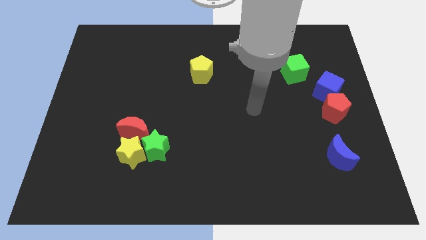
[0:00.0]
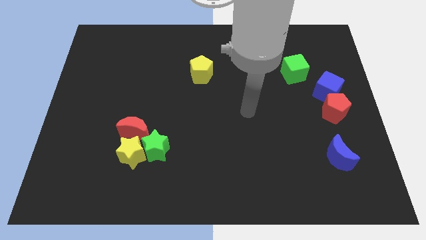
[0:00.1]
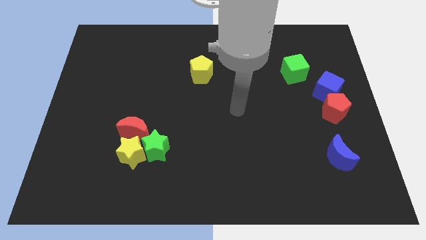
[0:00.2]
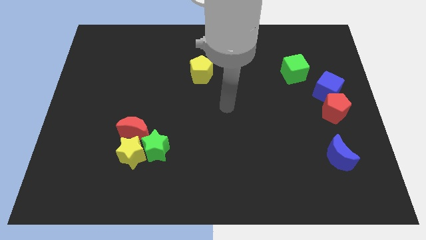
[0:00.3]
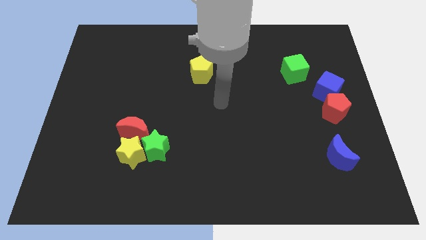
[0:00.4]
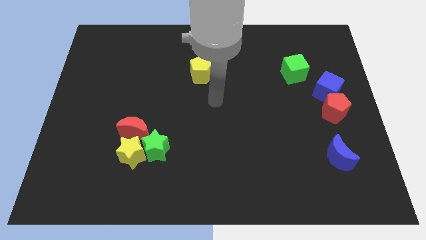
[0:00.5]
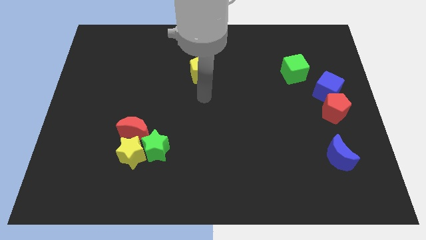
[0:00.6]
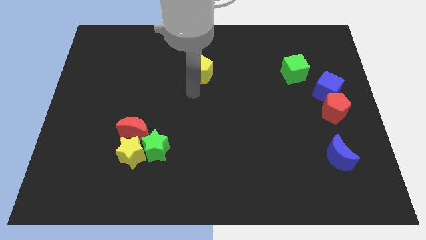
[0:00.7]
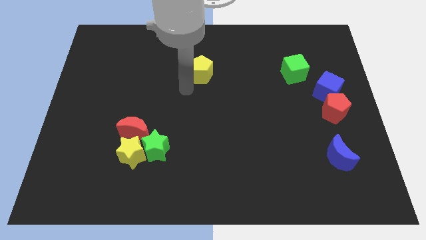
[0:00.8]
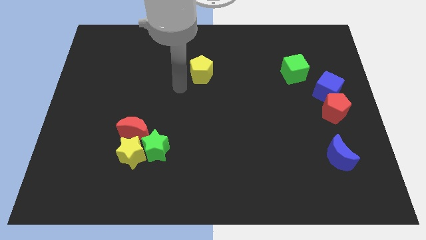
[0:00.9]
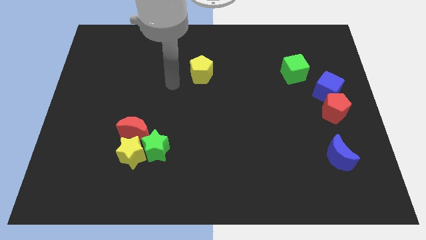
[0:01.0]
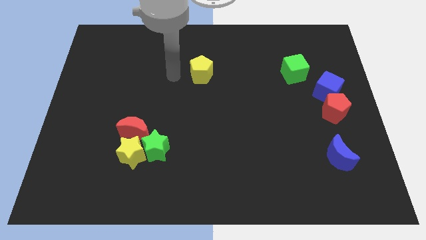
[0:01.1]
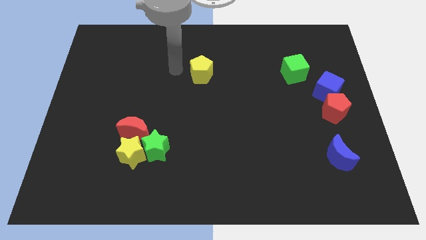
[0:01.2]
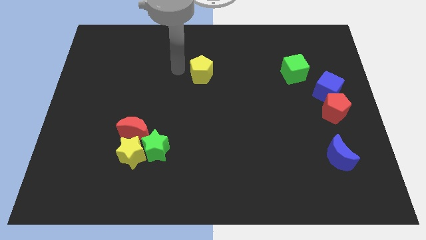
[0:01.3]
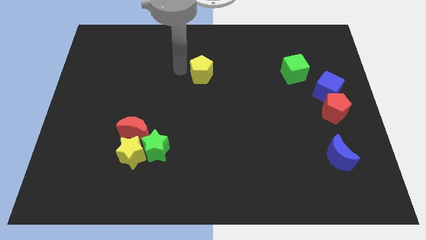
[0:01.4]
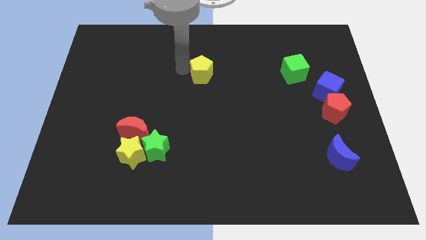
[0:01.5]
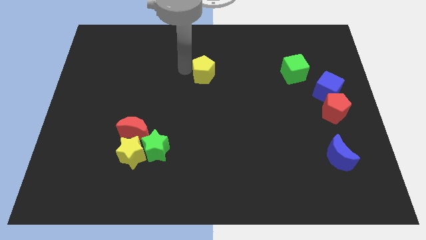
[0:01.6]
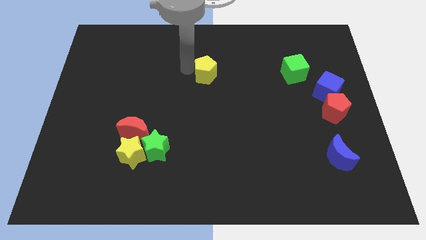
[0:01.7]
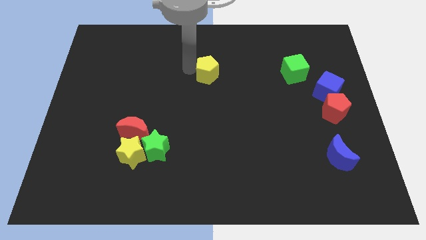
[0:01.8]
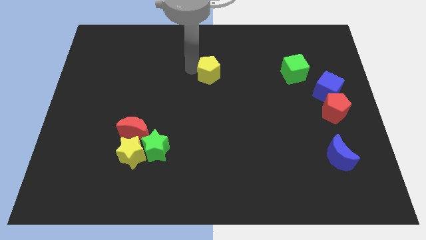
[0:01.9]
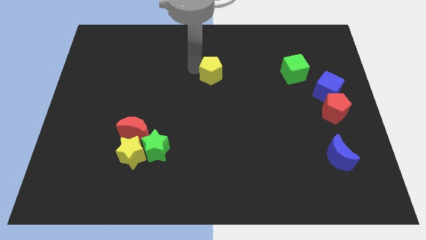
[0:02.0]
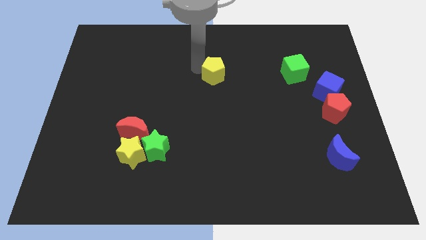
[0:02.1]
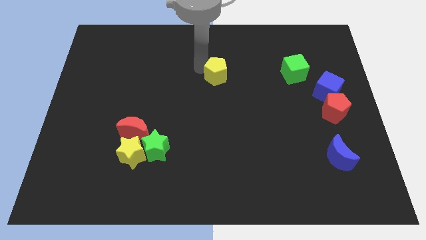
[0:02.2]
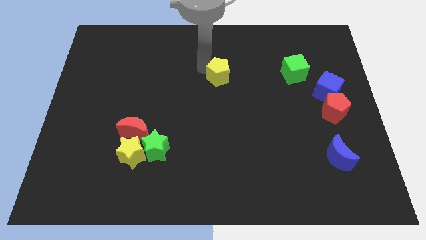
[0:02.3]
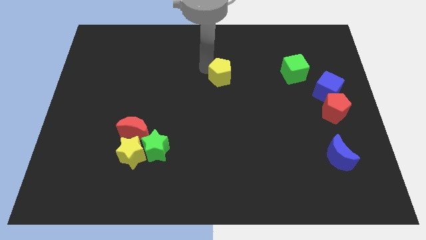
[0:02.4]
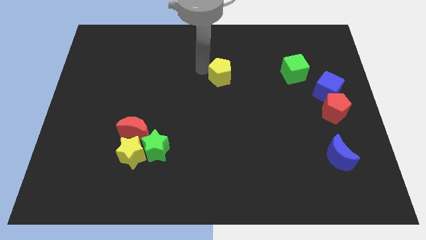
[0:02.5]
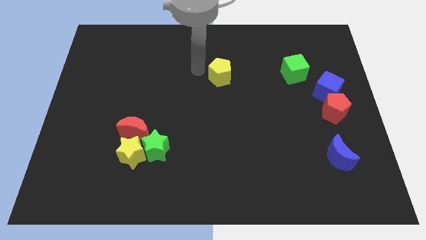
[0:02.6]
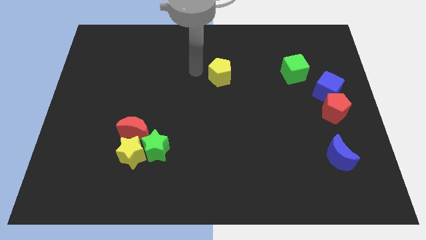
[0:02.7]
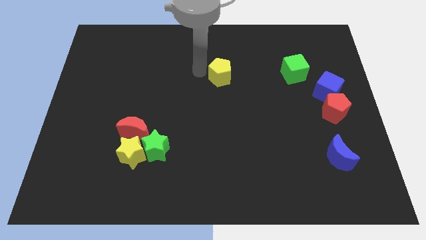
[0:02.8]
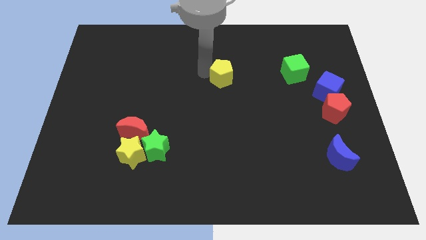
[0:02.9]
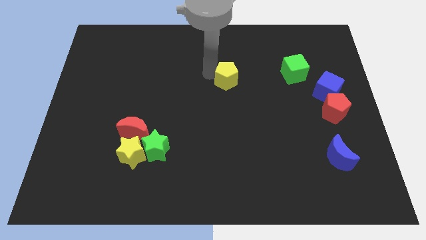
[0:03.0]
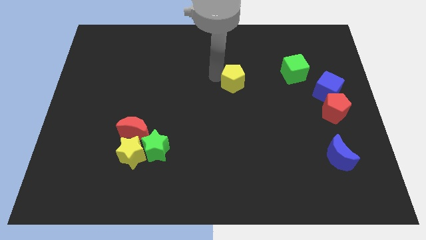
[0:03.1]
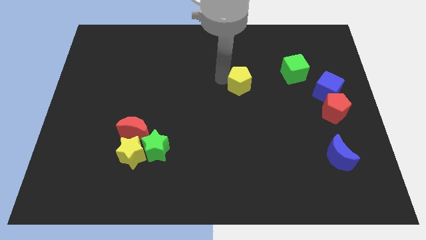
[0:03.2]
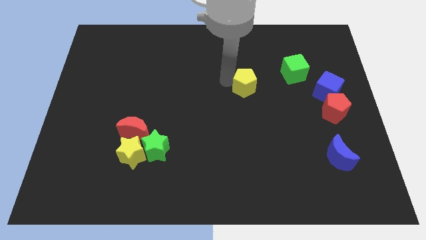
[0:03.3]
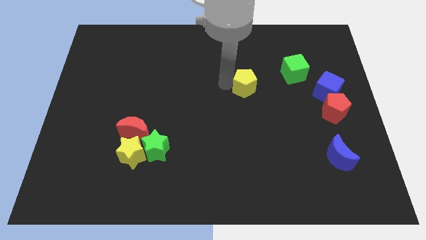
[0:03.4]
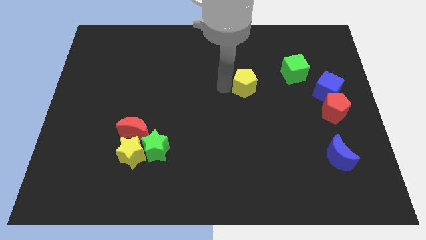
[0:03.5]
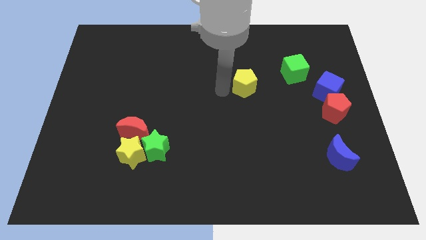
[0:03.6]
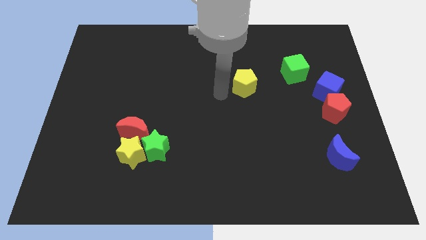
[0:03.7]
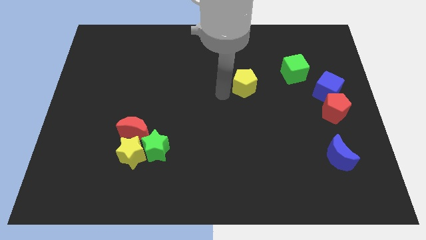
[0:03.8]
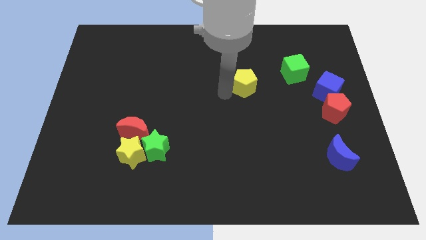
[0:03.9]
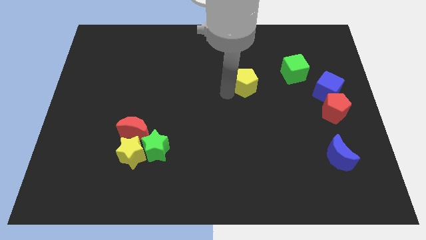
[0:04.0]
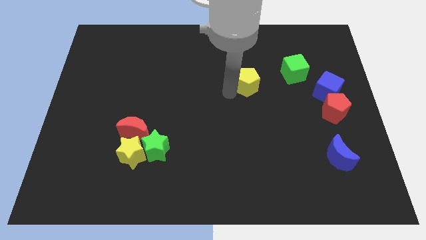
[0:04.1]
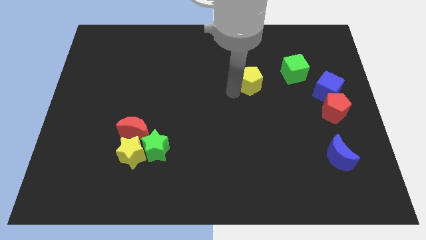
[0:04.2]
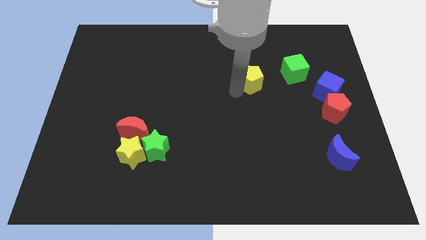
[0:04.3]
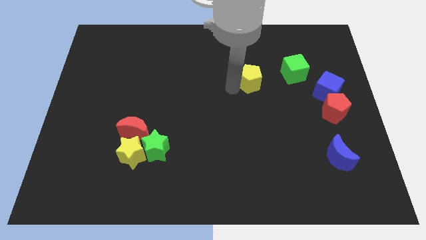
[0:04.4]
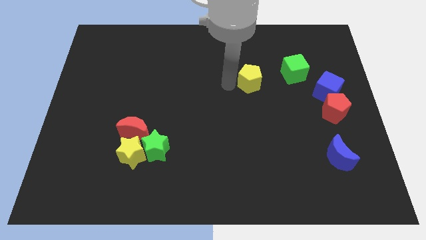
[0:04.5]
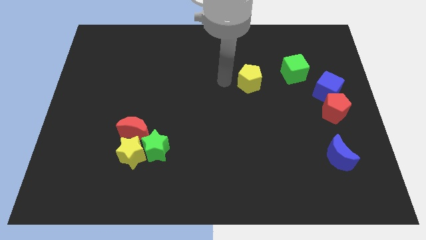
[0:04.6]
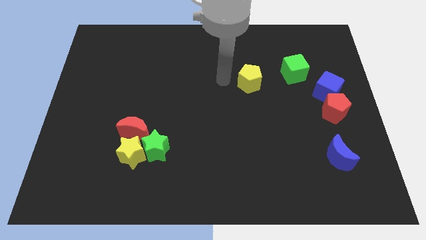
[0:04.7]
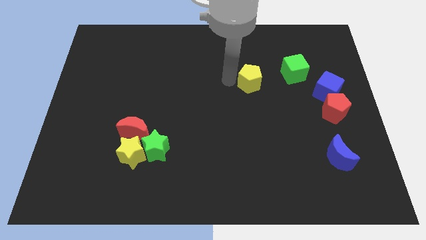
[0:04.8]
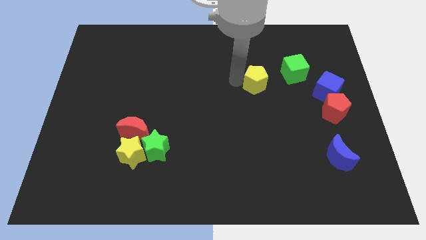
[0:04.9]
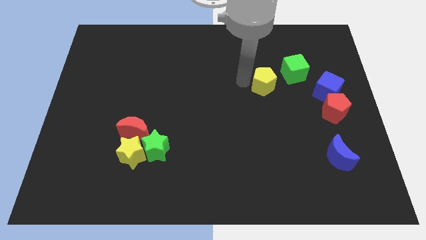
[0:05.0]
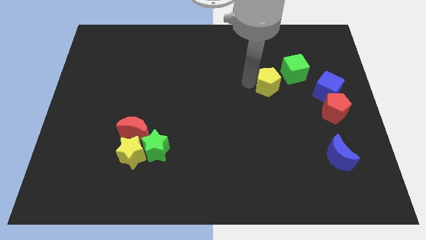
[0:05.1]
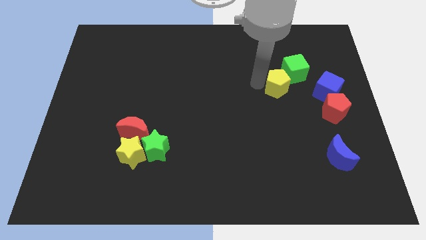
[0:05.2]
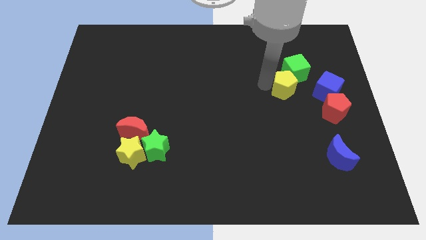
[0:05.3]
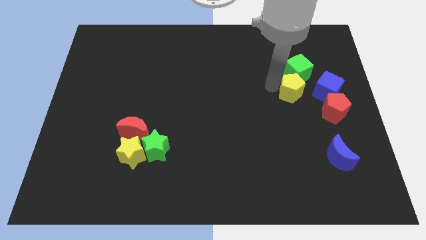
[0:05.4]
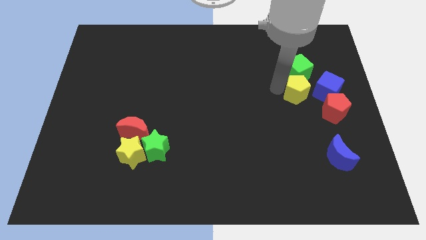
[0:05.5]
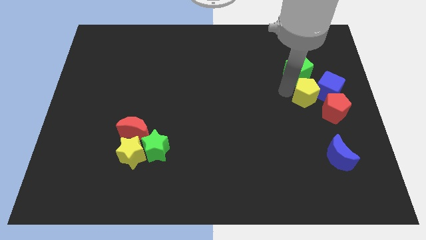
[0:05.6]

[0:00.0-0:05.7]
push the yellow pentagon to the blue cube

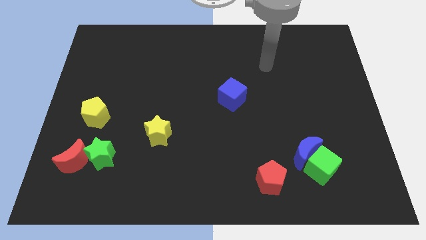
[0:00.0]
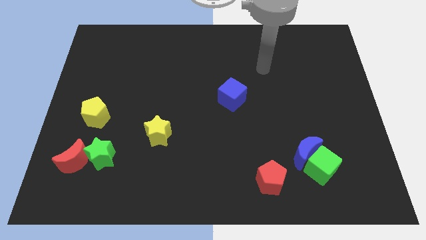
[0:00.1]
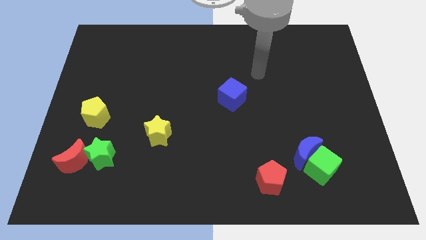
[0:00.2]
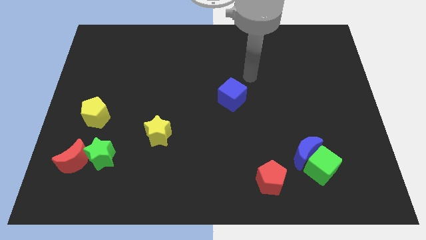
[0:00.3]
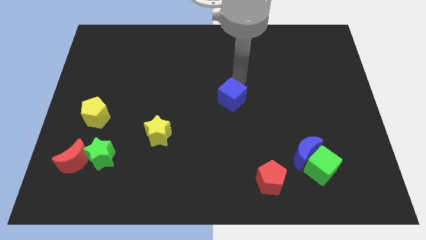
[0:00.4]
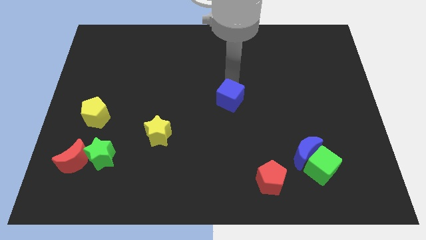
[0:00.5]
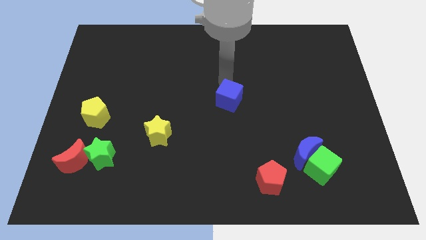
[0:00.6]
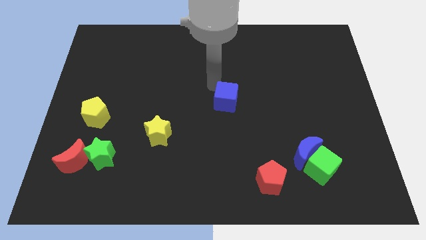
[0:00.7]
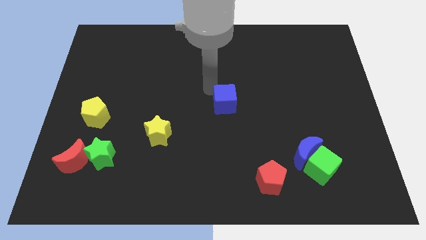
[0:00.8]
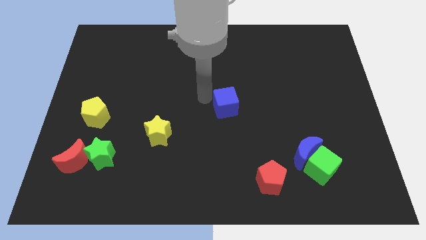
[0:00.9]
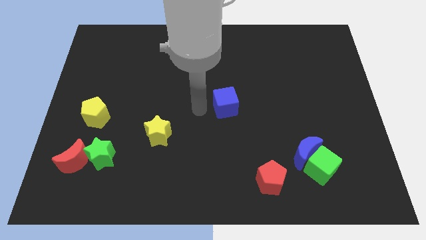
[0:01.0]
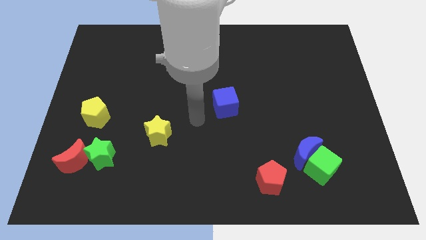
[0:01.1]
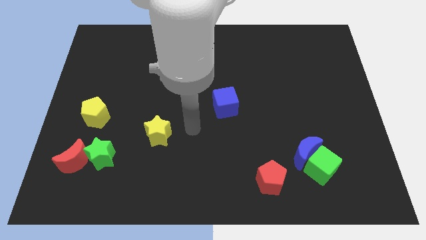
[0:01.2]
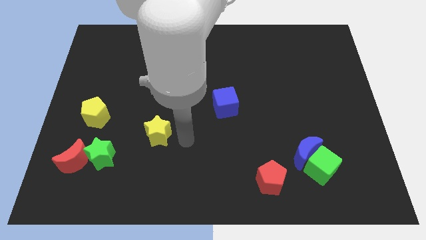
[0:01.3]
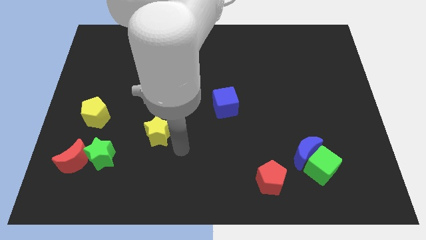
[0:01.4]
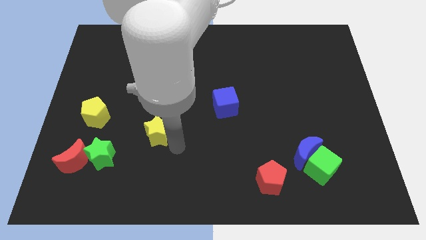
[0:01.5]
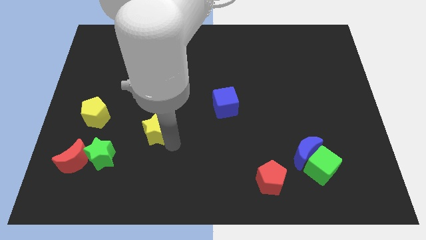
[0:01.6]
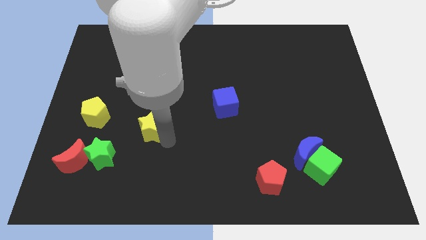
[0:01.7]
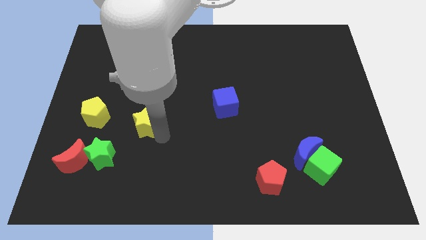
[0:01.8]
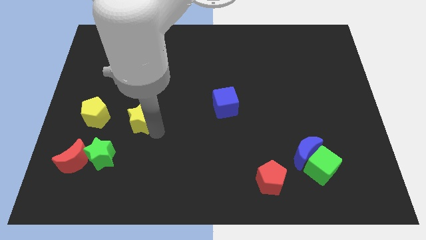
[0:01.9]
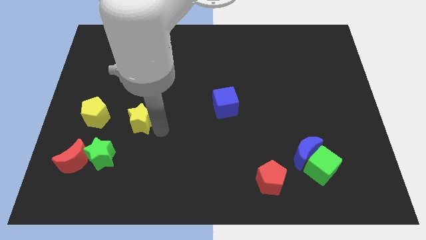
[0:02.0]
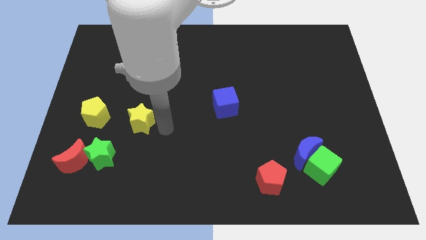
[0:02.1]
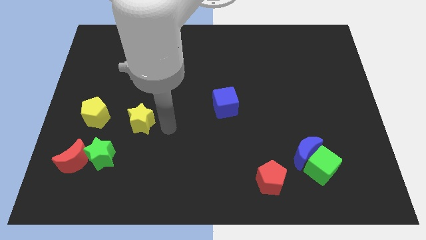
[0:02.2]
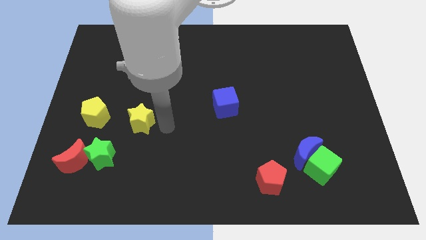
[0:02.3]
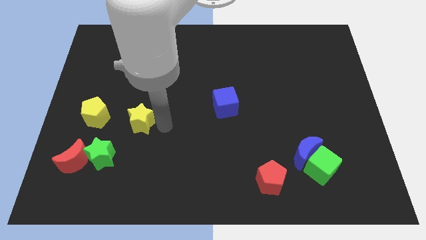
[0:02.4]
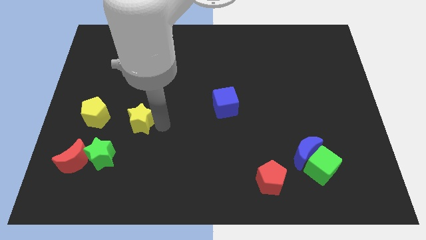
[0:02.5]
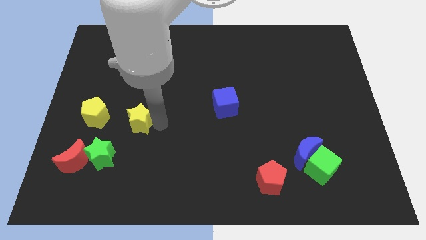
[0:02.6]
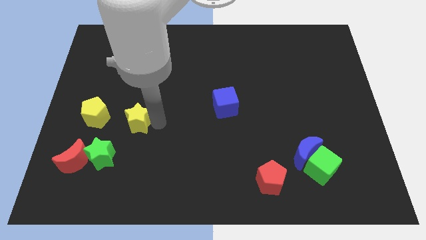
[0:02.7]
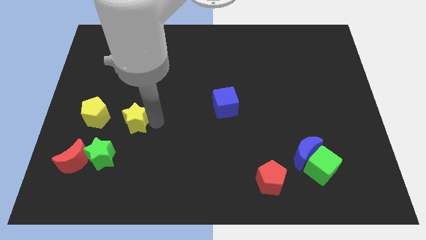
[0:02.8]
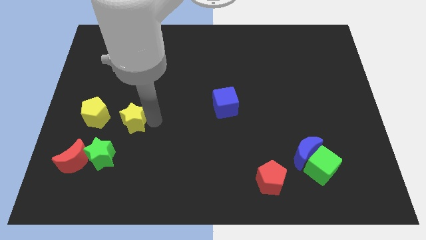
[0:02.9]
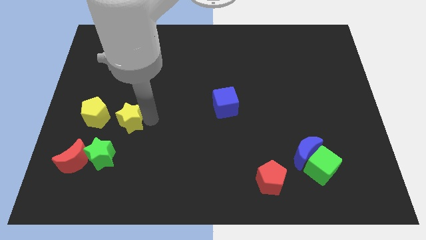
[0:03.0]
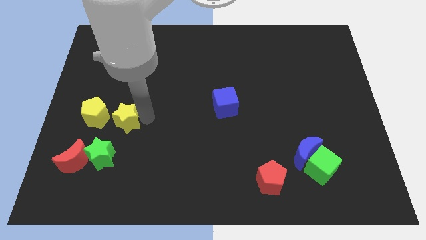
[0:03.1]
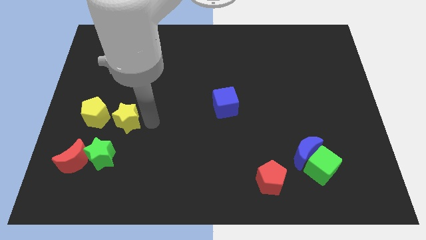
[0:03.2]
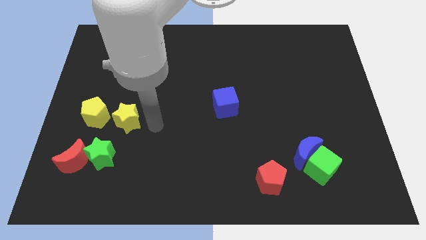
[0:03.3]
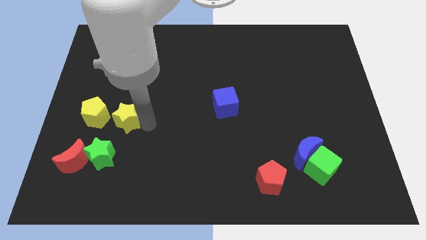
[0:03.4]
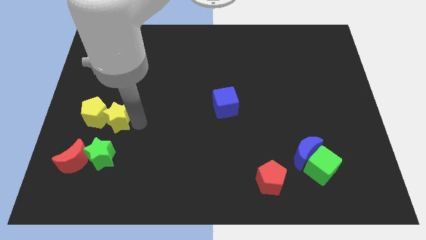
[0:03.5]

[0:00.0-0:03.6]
push the yellow star close to the yellow pentagon
